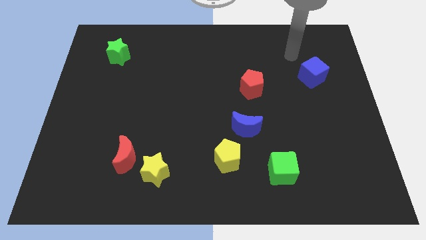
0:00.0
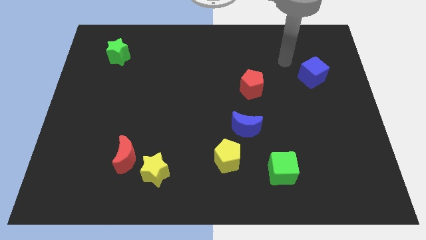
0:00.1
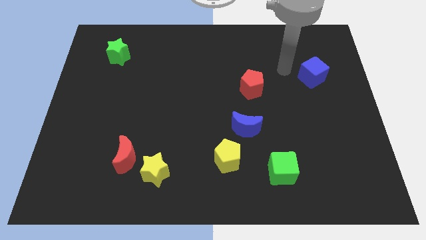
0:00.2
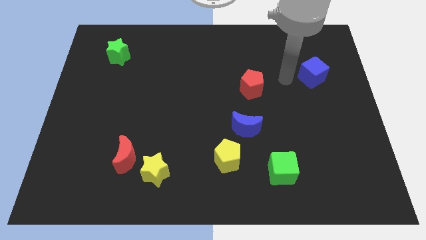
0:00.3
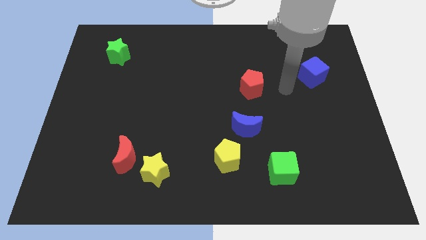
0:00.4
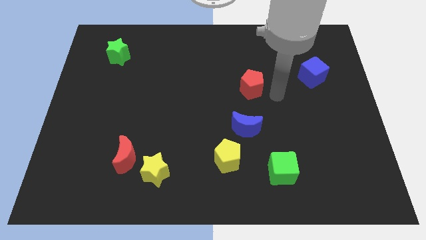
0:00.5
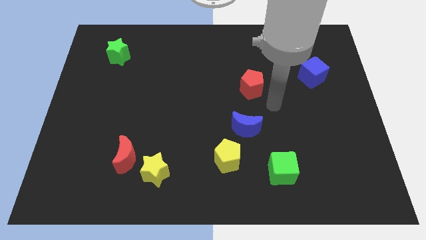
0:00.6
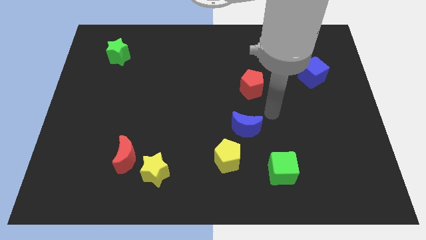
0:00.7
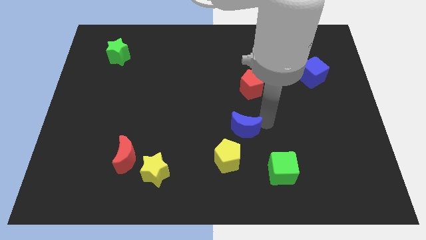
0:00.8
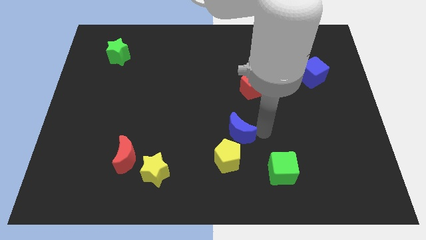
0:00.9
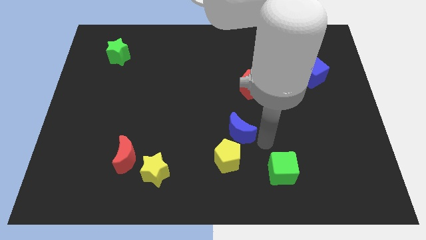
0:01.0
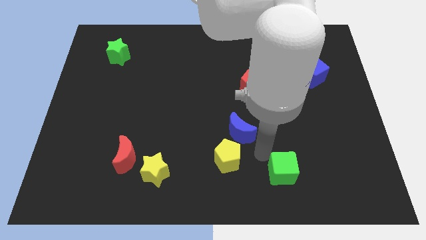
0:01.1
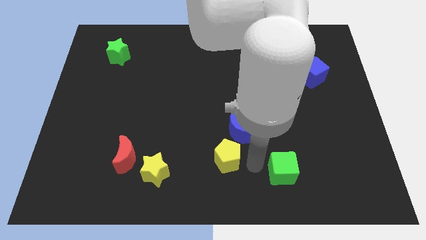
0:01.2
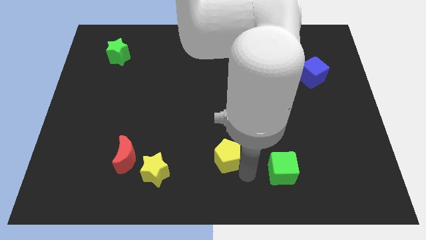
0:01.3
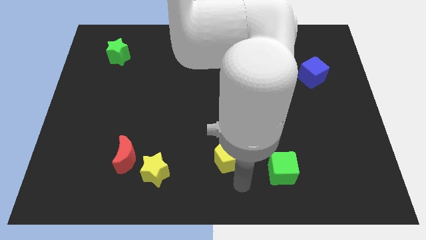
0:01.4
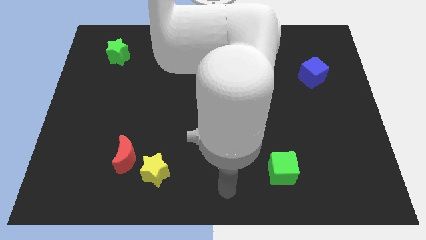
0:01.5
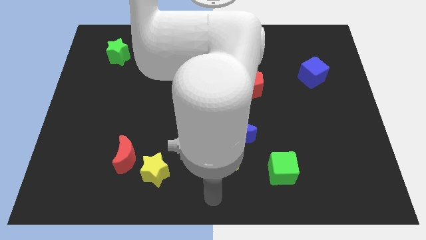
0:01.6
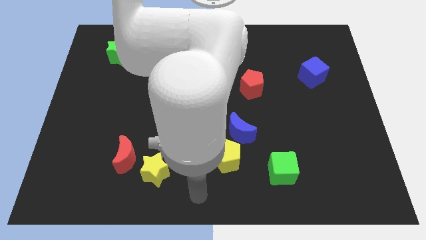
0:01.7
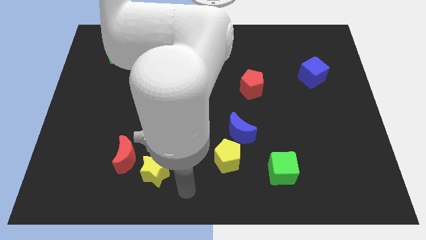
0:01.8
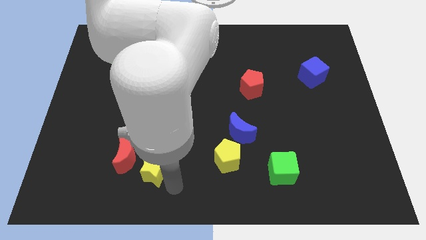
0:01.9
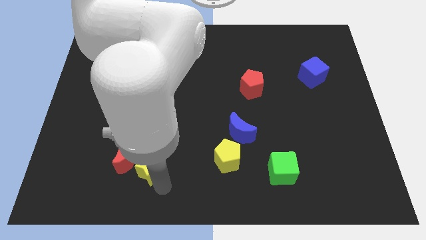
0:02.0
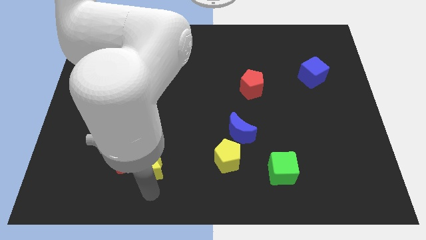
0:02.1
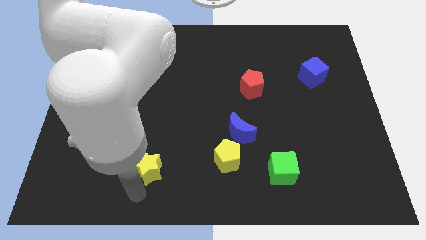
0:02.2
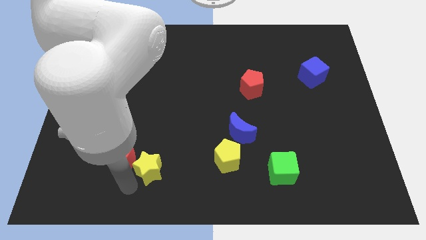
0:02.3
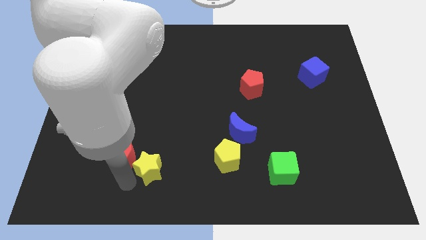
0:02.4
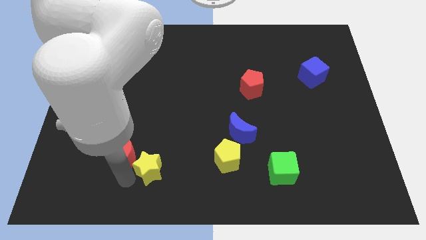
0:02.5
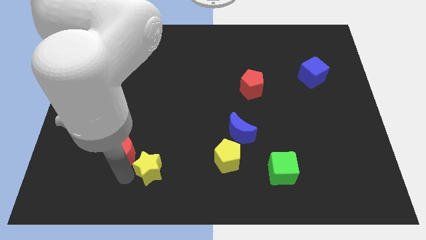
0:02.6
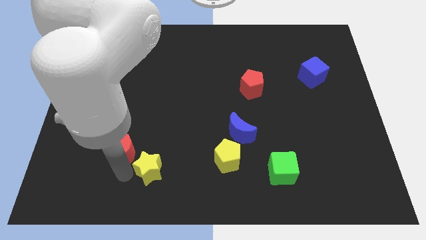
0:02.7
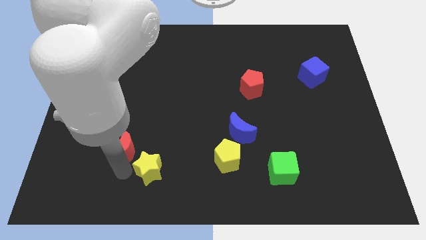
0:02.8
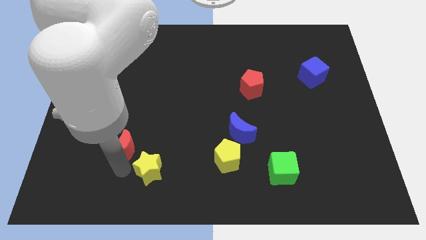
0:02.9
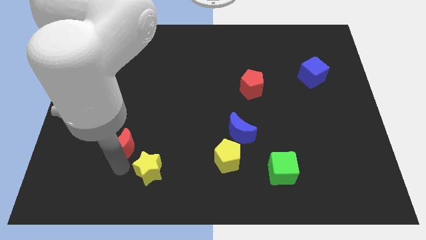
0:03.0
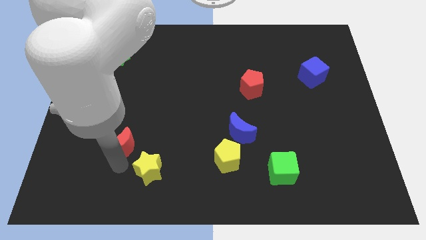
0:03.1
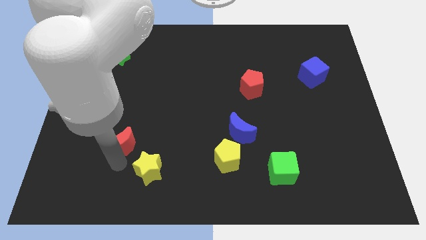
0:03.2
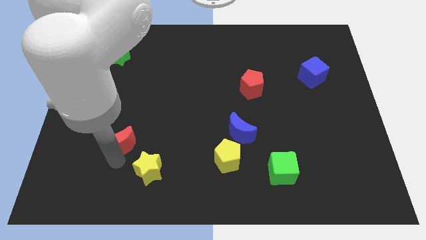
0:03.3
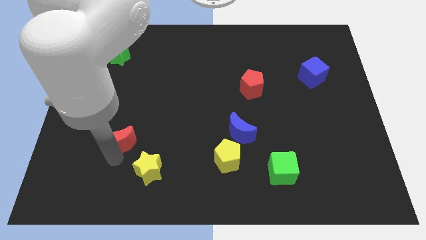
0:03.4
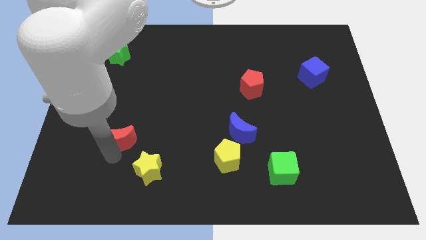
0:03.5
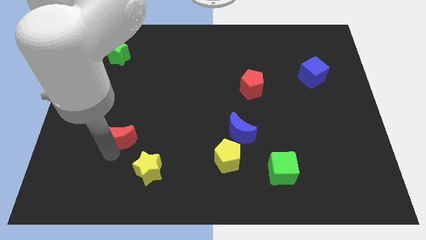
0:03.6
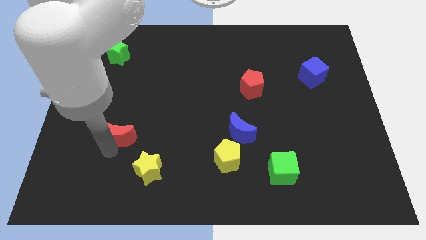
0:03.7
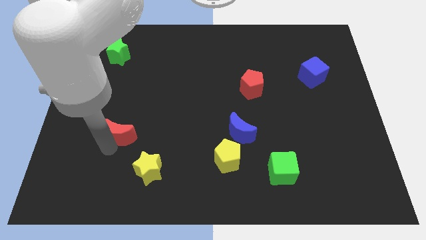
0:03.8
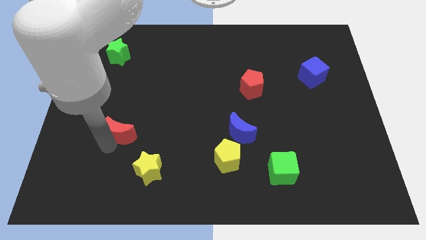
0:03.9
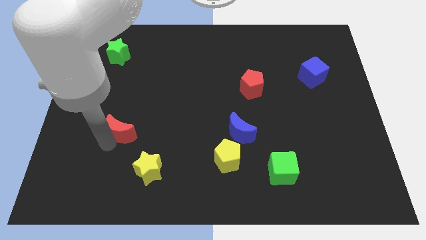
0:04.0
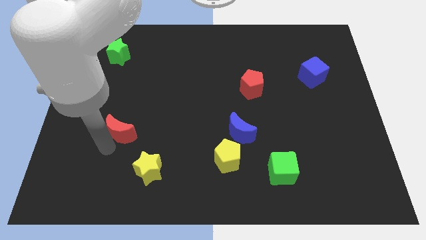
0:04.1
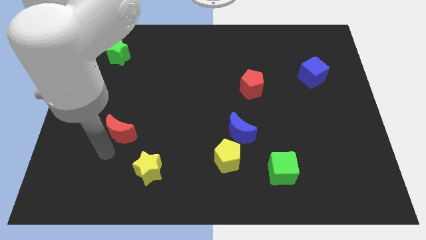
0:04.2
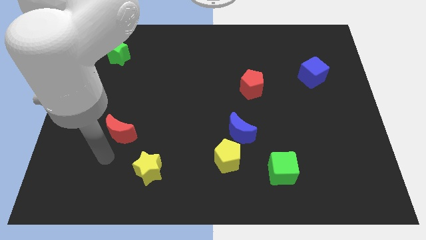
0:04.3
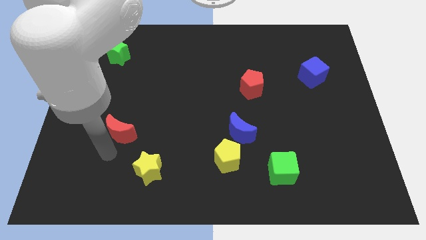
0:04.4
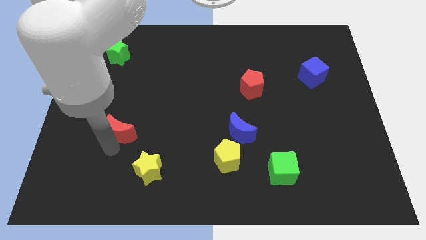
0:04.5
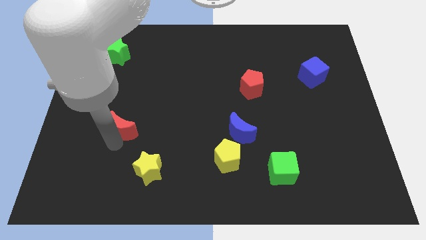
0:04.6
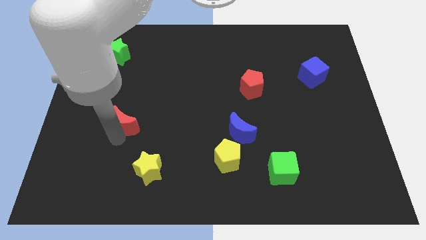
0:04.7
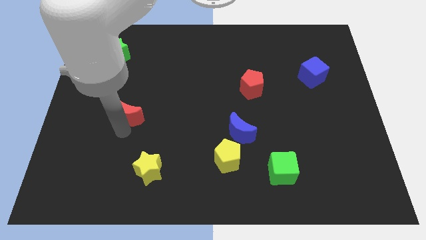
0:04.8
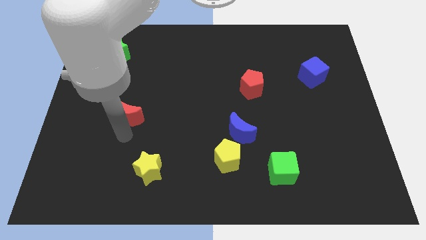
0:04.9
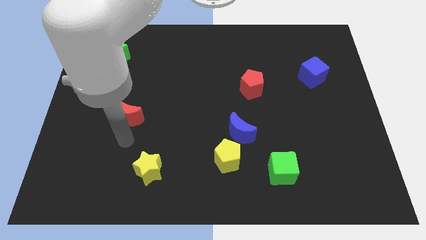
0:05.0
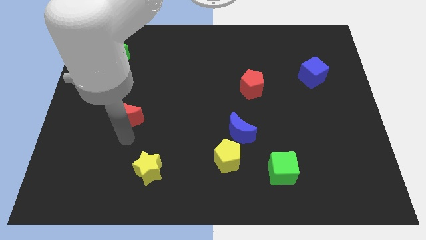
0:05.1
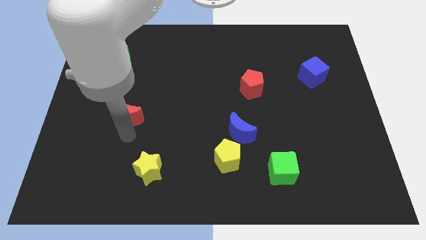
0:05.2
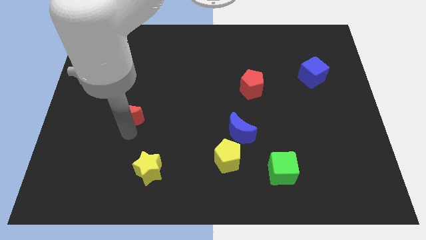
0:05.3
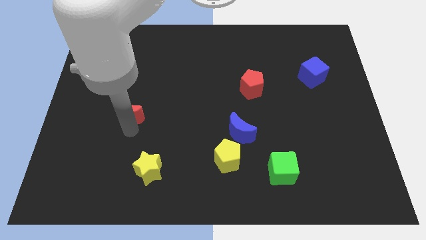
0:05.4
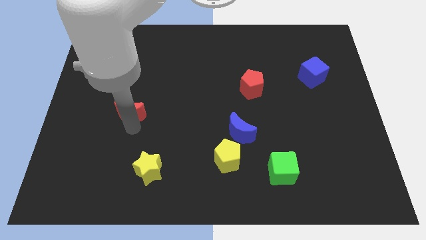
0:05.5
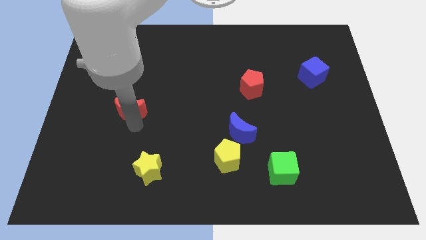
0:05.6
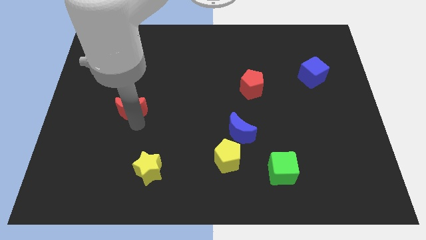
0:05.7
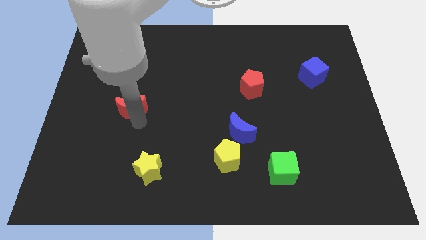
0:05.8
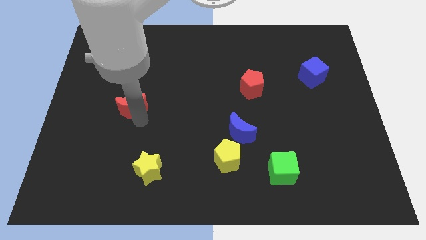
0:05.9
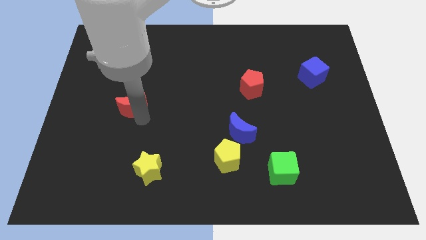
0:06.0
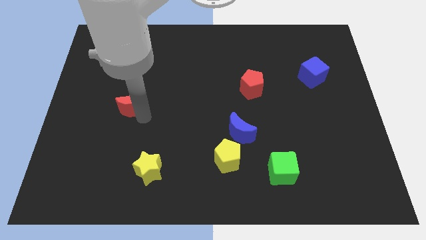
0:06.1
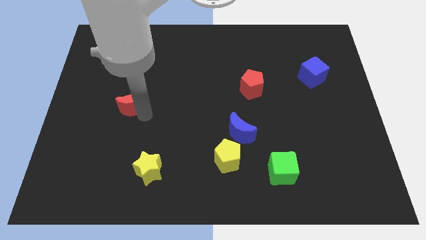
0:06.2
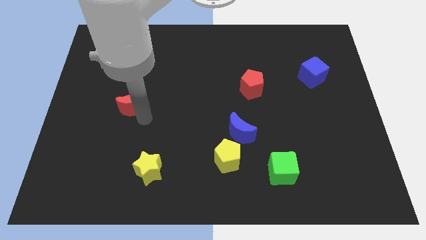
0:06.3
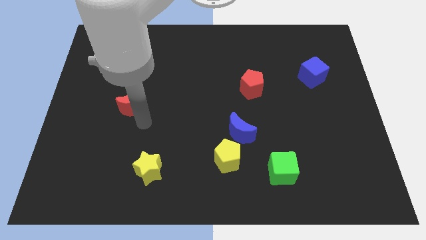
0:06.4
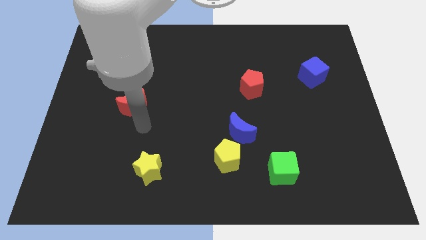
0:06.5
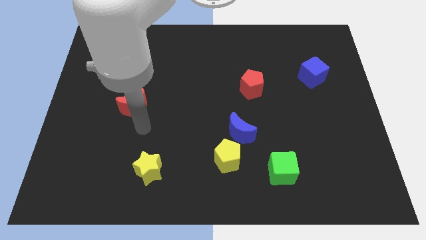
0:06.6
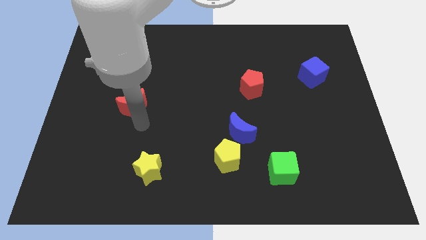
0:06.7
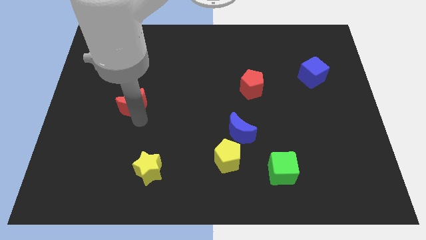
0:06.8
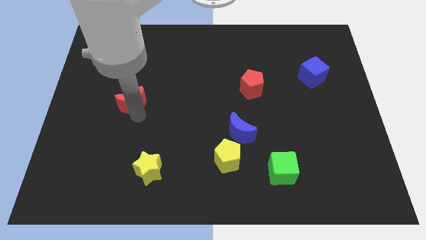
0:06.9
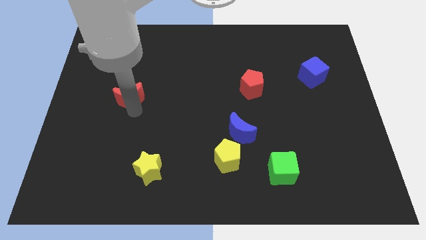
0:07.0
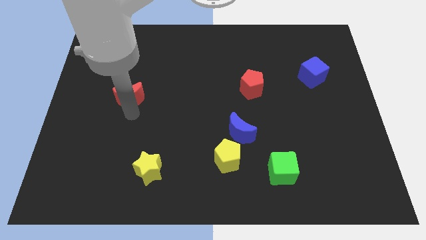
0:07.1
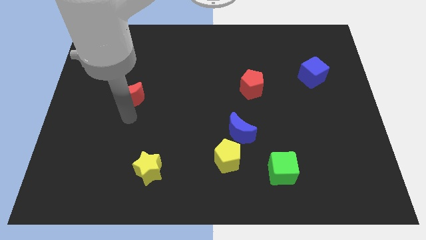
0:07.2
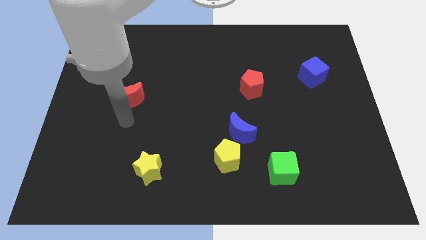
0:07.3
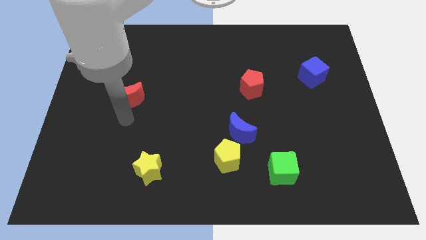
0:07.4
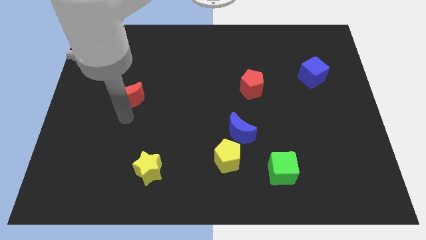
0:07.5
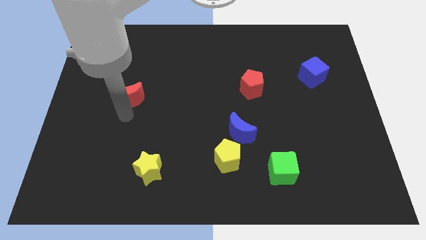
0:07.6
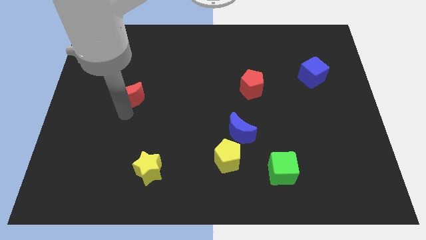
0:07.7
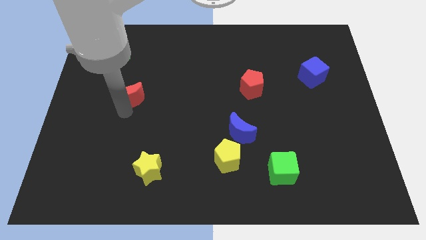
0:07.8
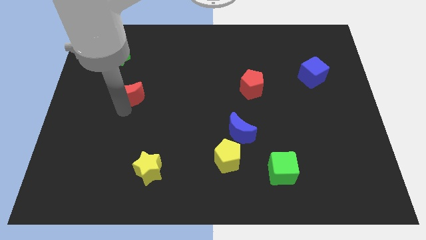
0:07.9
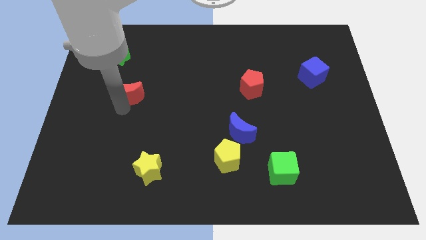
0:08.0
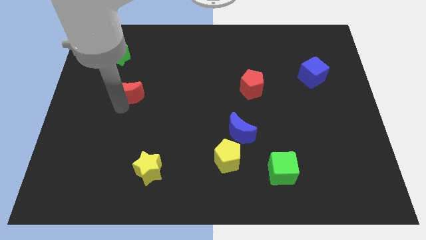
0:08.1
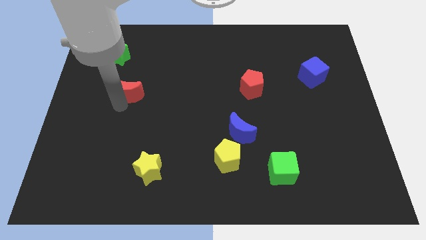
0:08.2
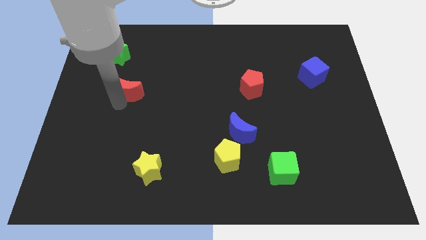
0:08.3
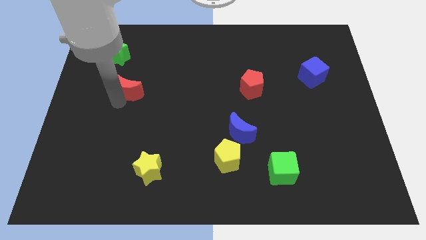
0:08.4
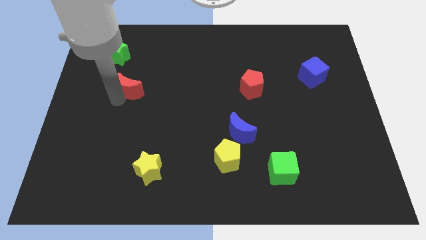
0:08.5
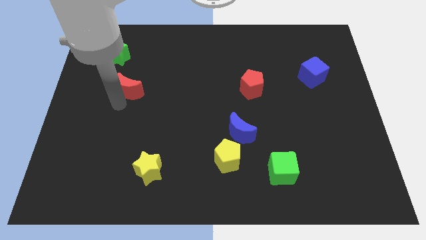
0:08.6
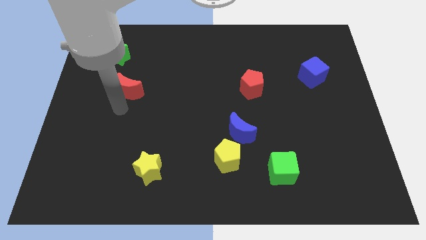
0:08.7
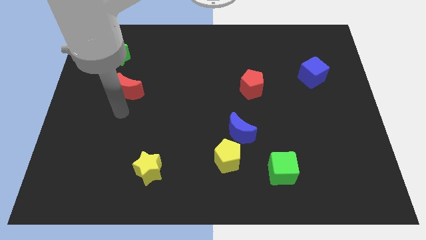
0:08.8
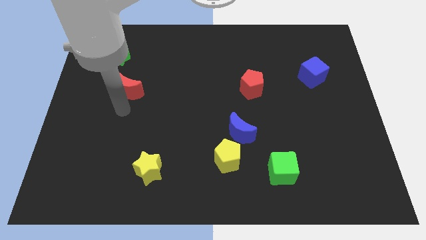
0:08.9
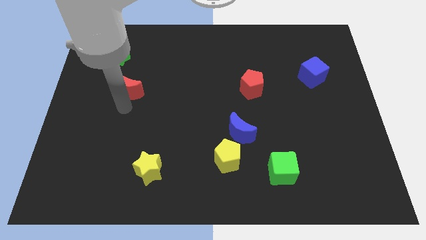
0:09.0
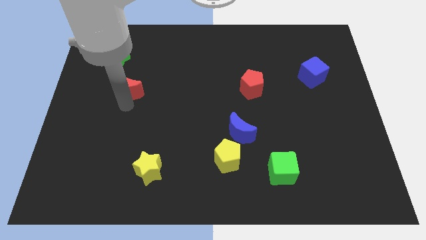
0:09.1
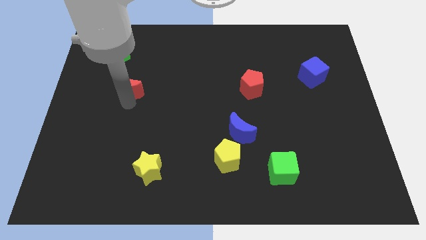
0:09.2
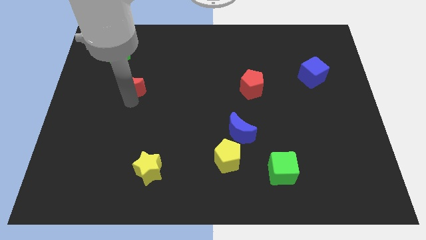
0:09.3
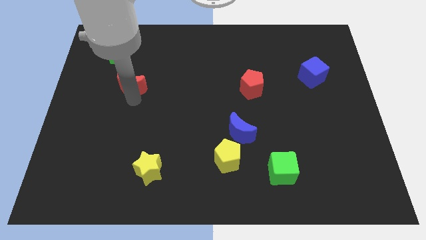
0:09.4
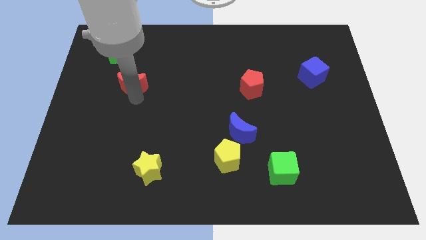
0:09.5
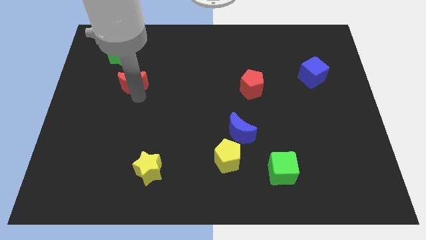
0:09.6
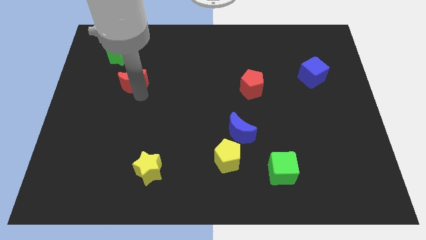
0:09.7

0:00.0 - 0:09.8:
put the red moon to the bottom right side of the green star
